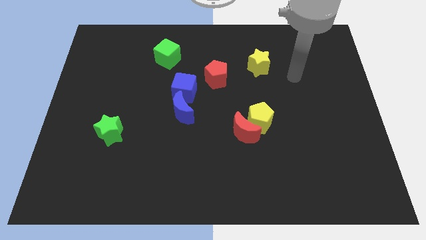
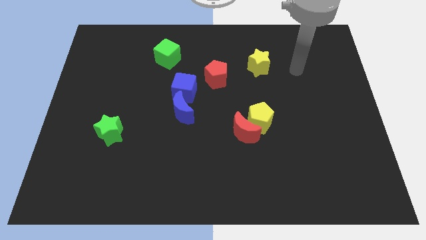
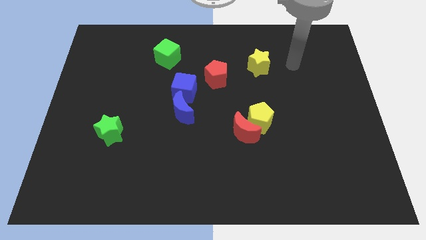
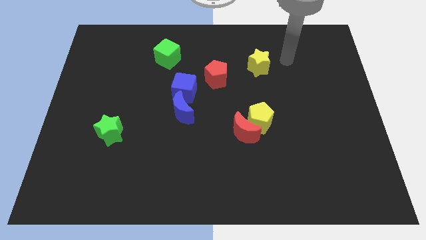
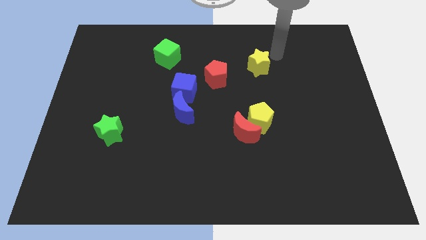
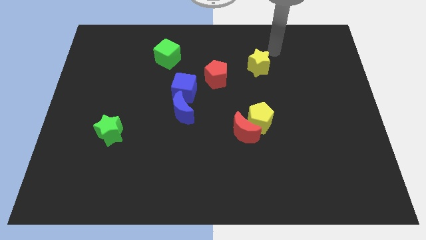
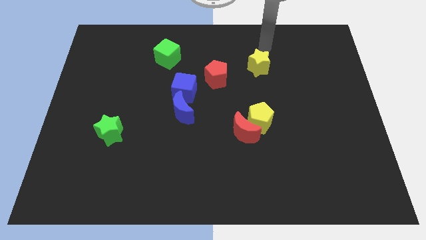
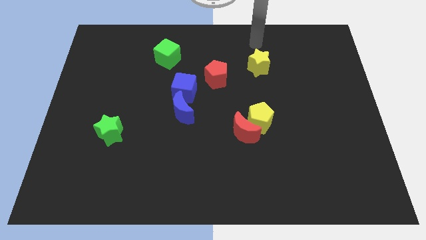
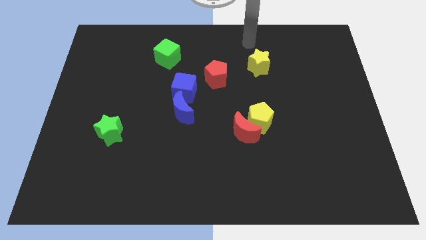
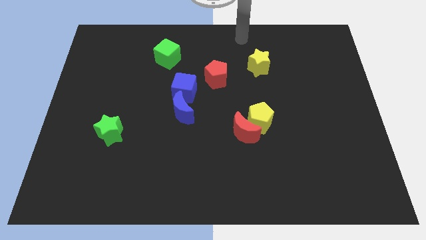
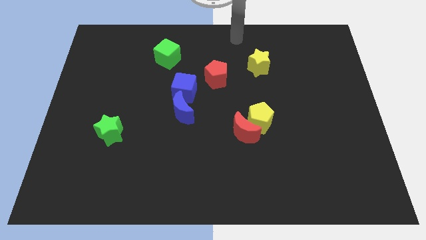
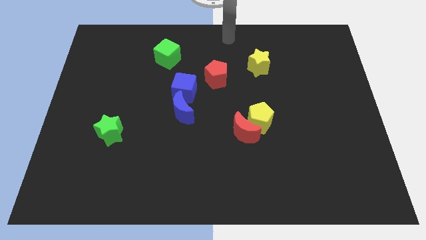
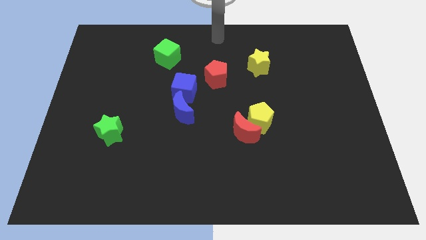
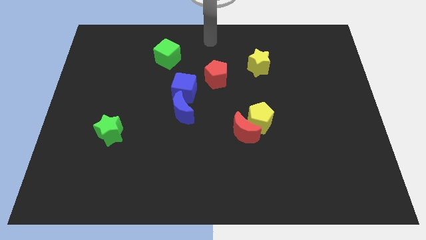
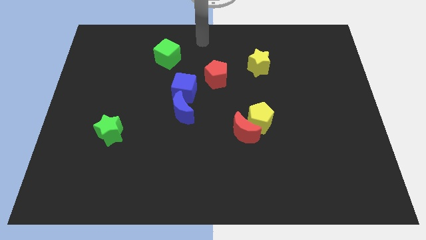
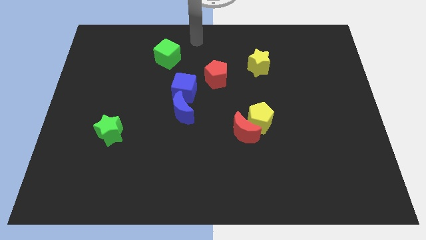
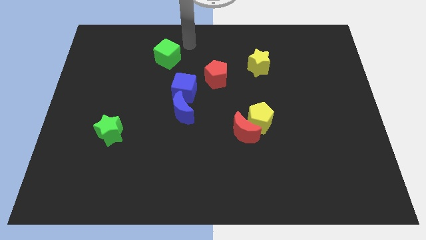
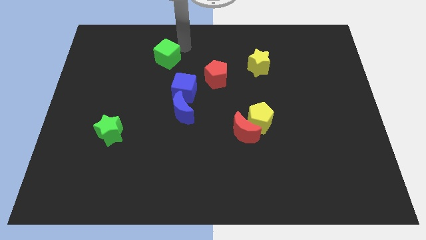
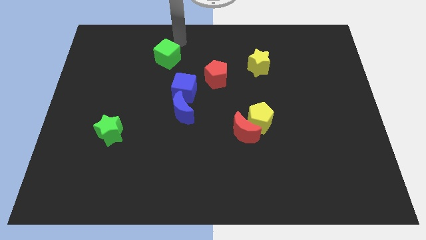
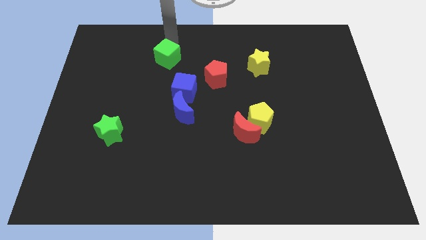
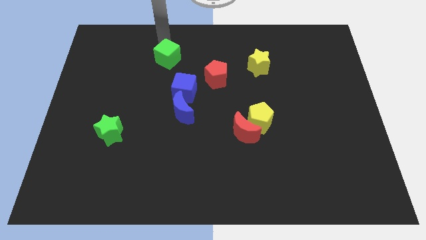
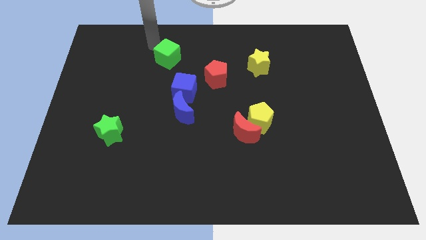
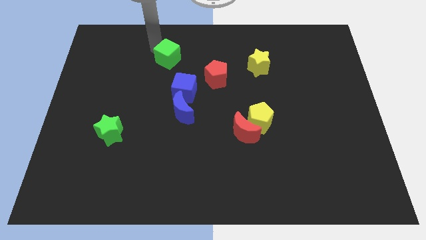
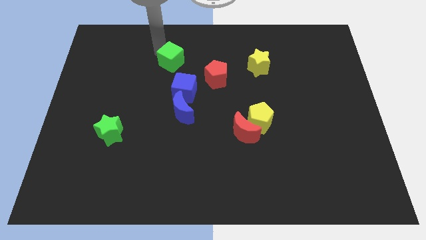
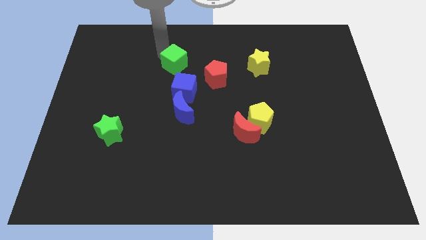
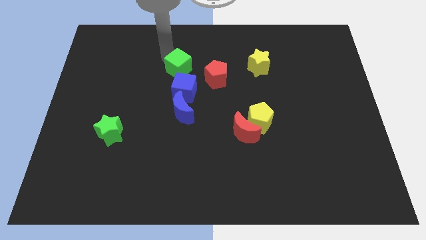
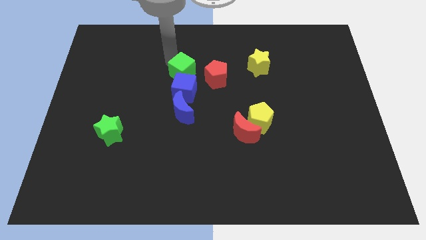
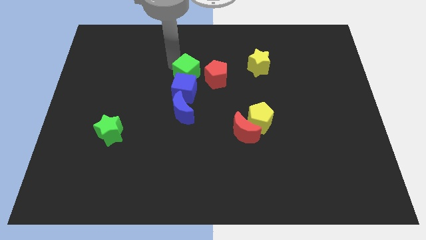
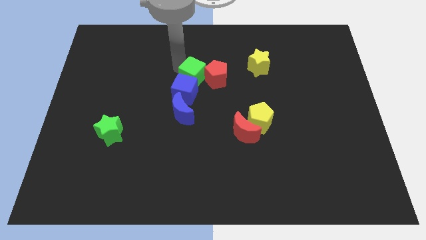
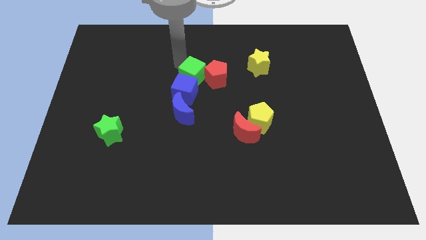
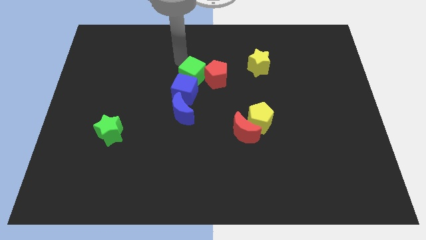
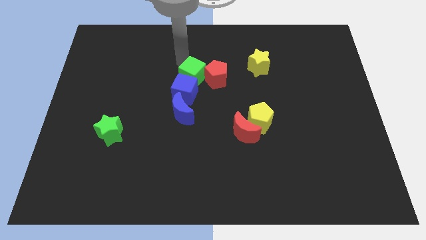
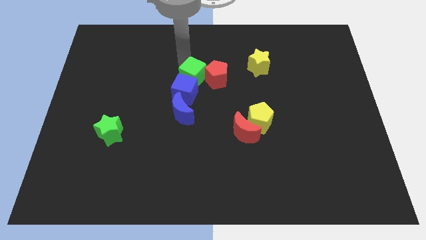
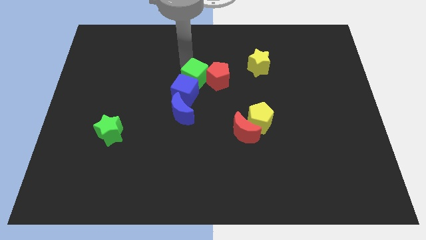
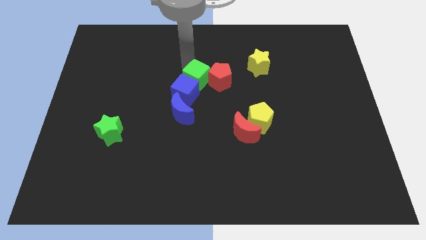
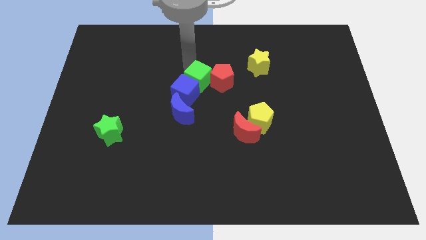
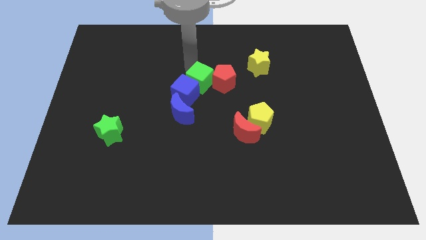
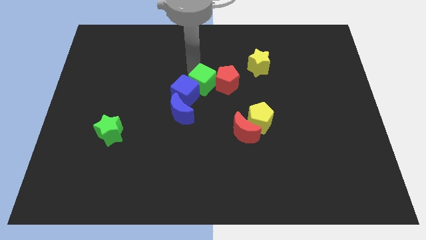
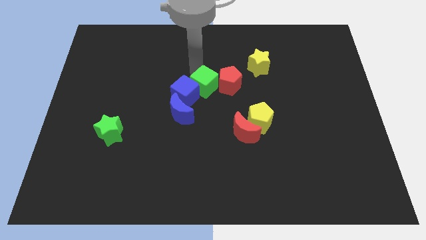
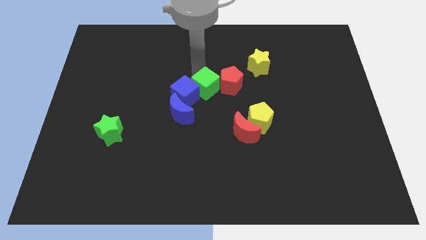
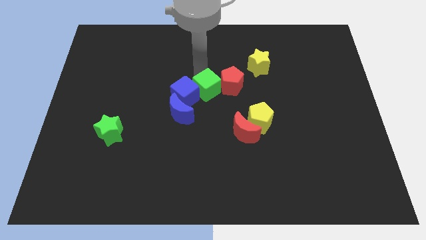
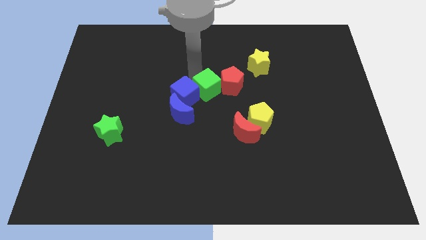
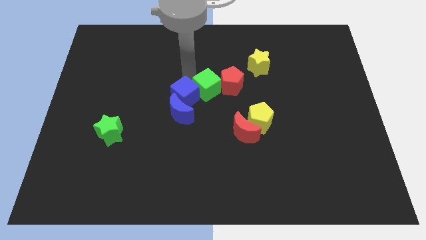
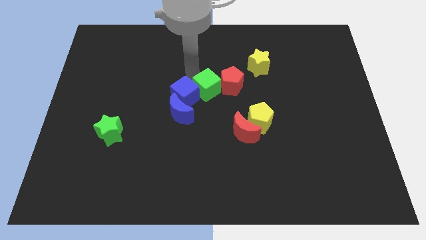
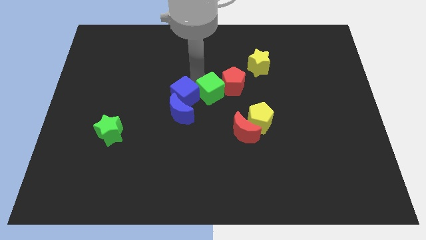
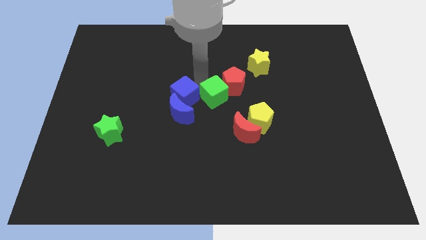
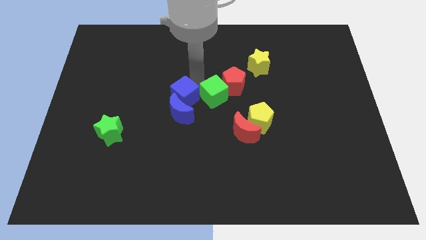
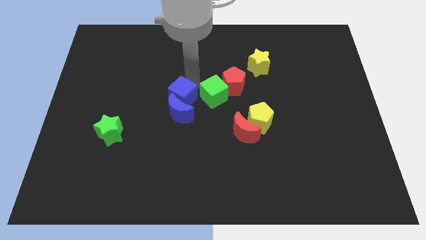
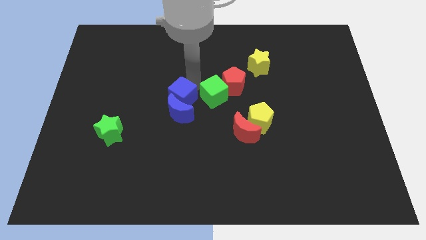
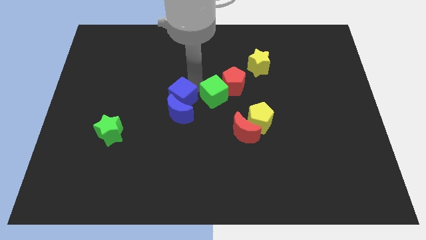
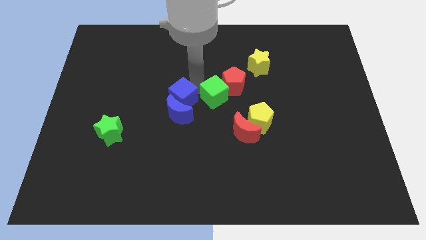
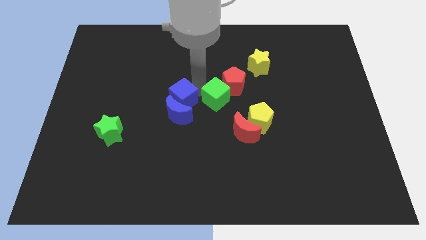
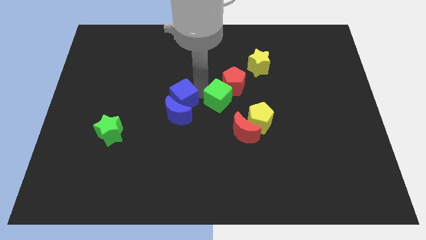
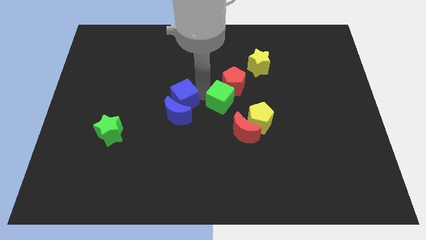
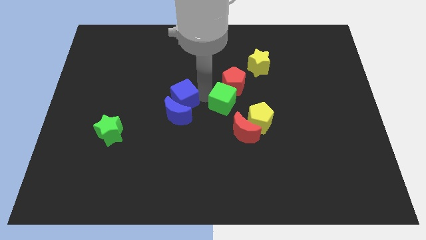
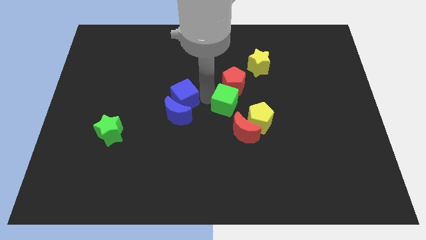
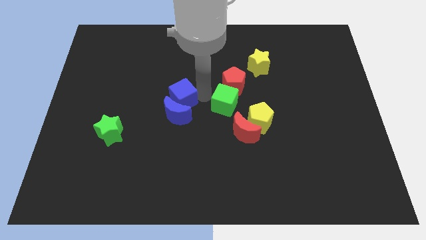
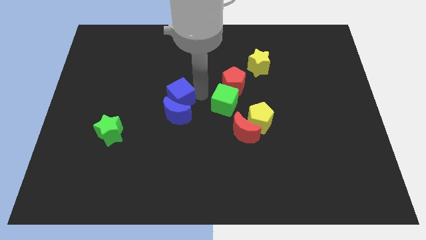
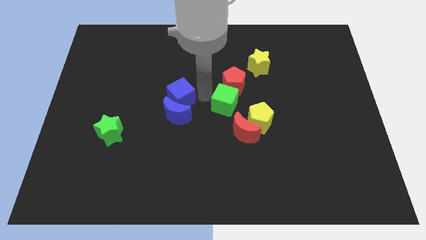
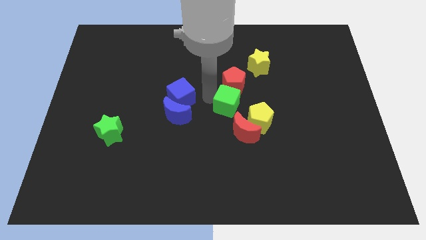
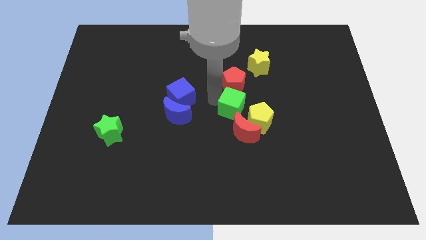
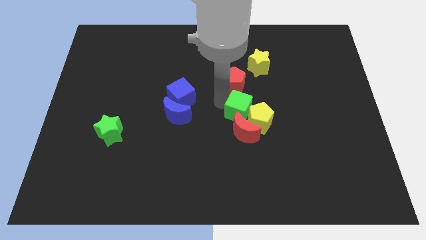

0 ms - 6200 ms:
move the green cube towards the yellow pentagon

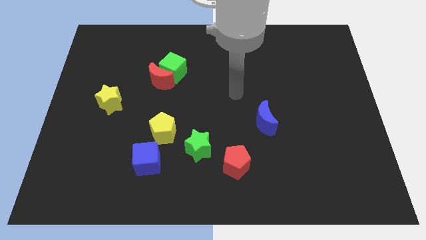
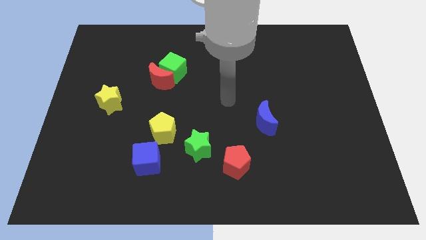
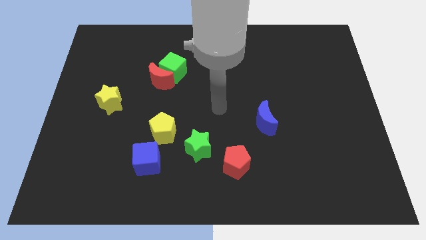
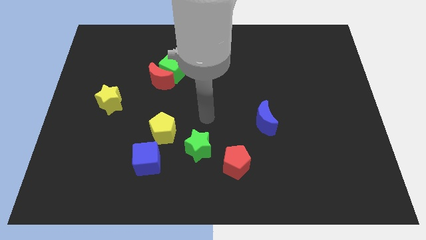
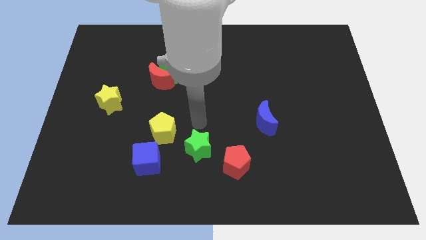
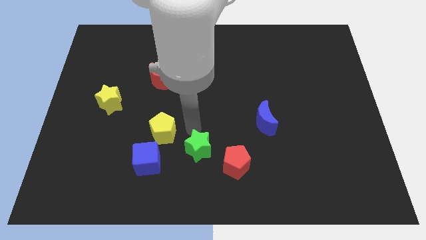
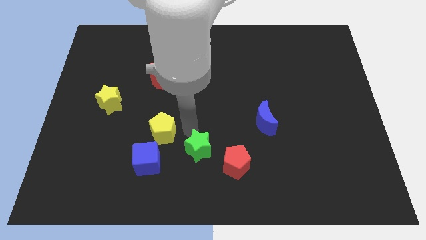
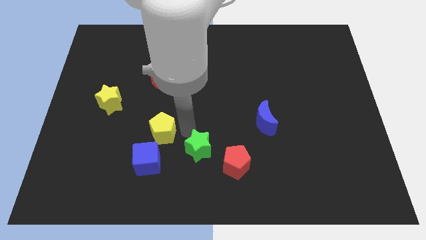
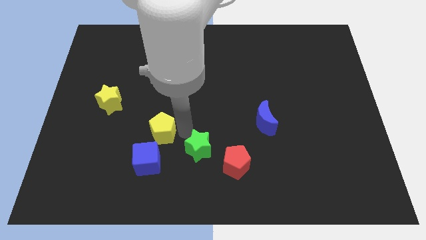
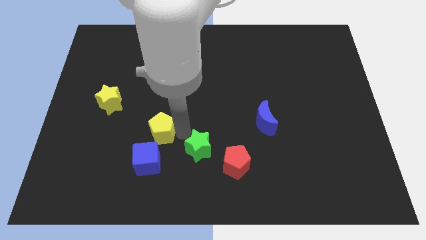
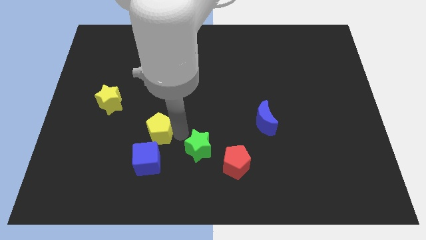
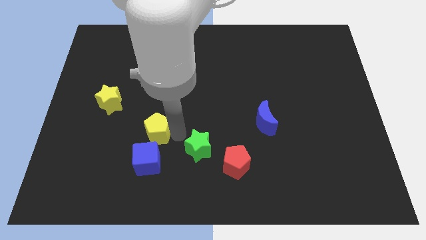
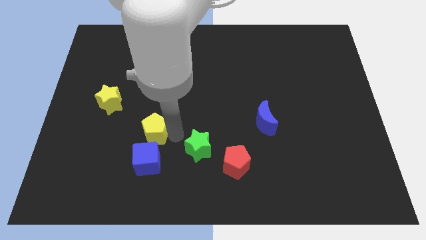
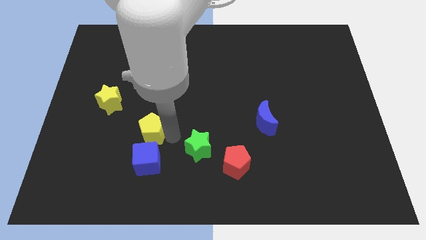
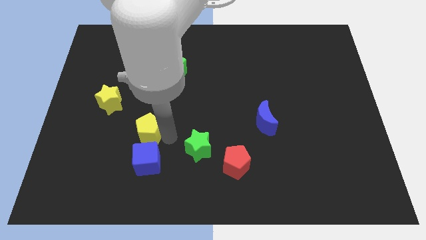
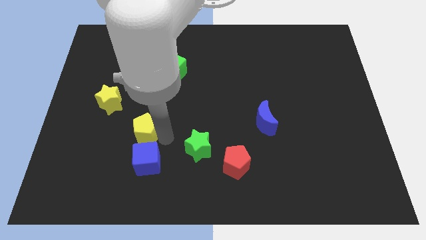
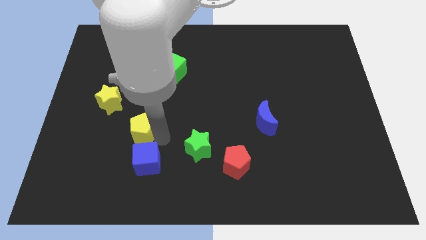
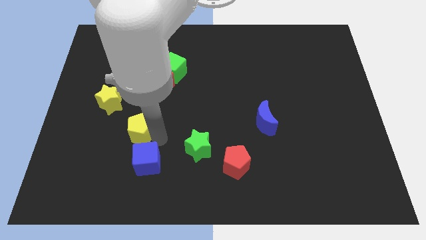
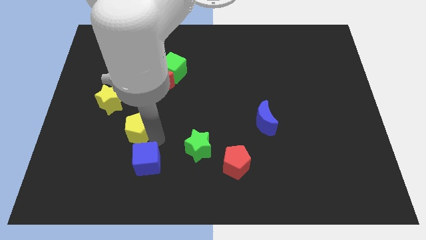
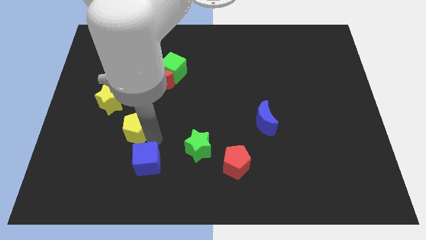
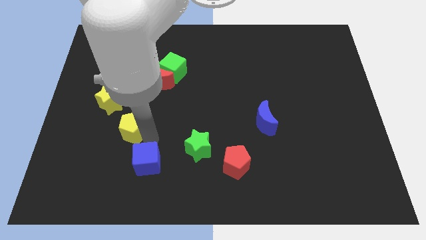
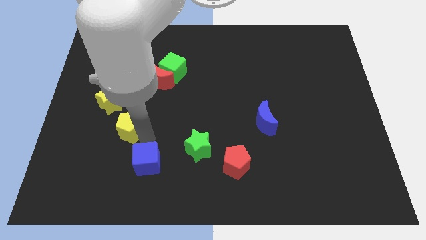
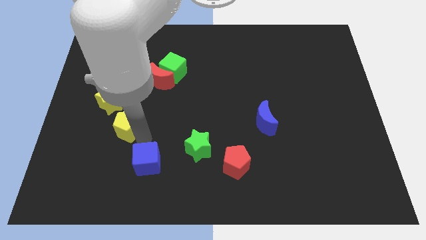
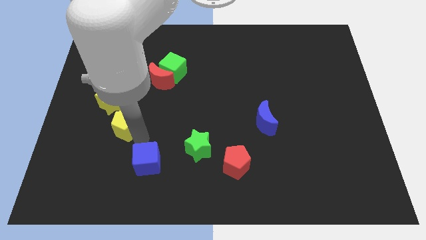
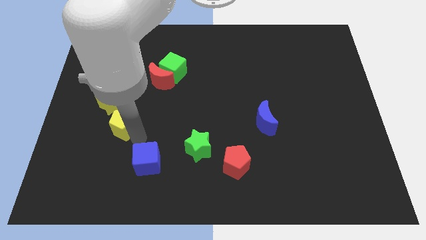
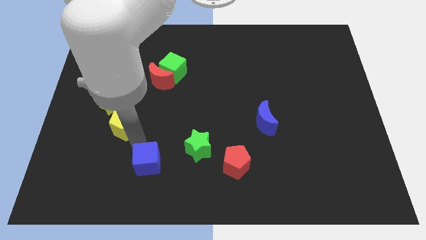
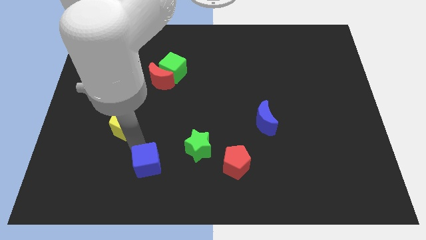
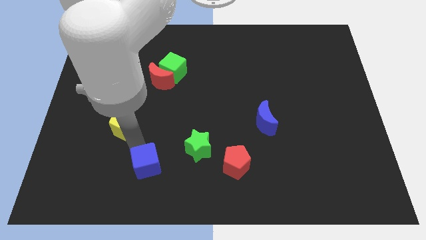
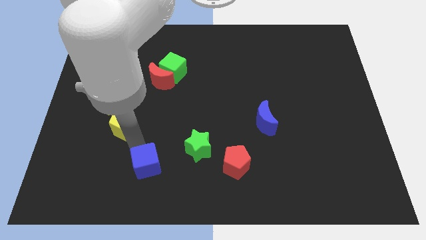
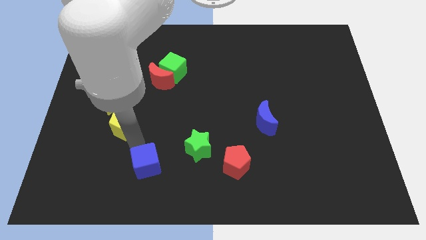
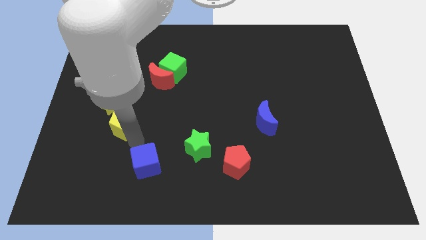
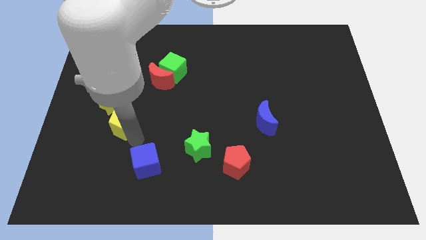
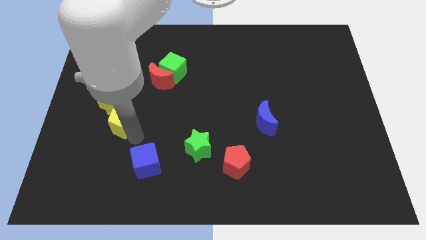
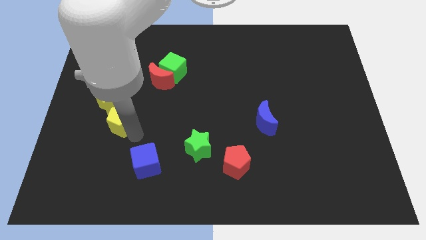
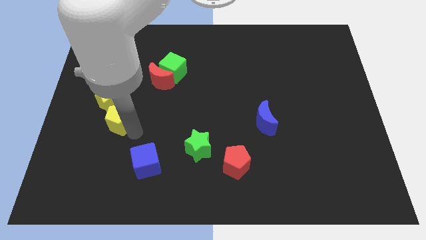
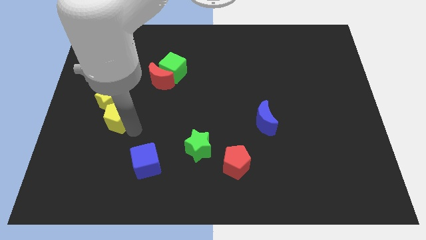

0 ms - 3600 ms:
slide the yellow pentagon towards the yellow star
